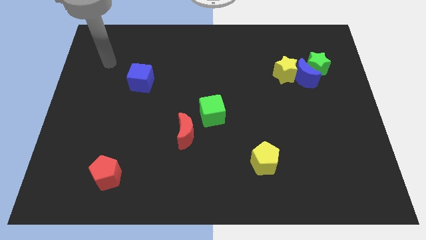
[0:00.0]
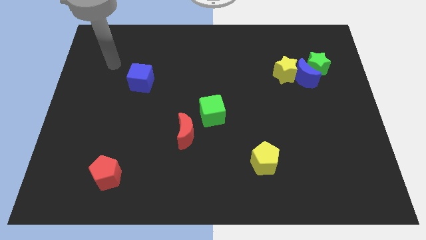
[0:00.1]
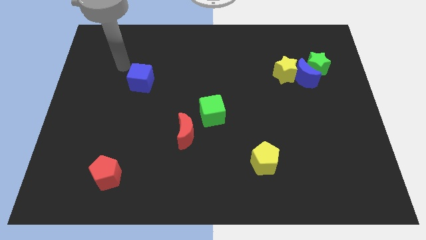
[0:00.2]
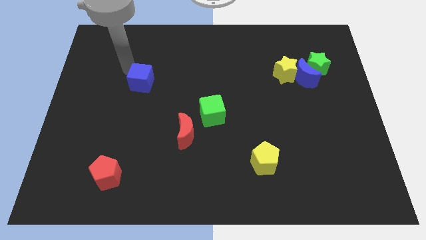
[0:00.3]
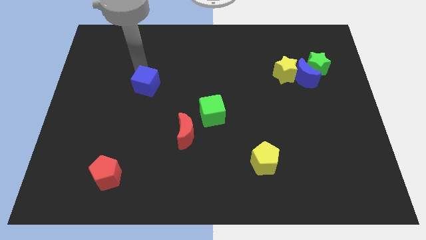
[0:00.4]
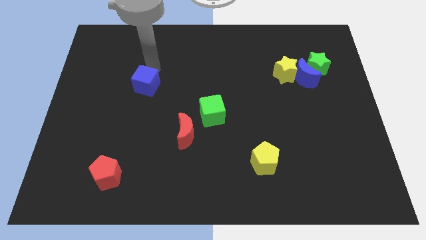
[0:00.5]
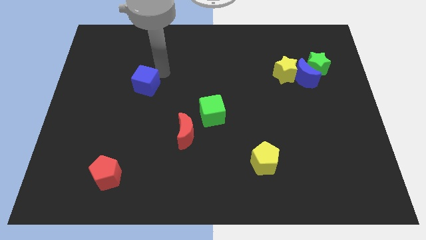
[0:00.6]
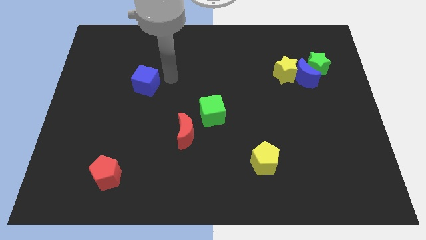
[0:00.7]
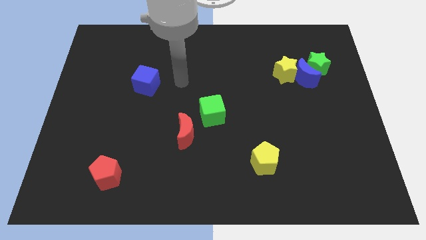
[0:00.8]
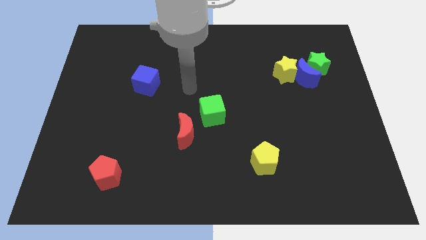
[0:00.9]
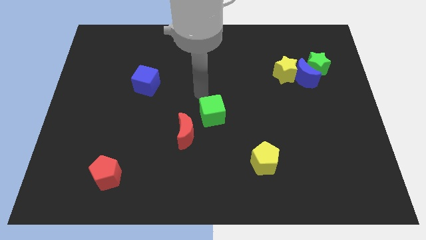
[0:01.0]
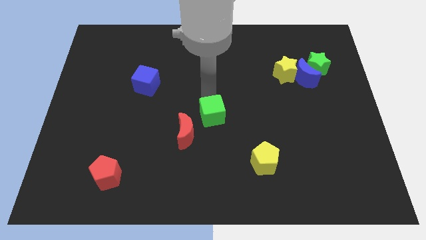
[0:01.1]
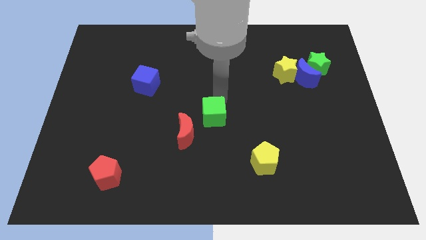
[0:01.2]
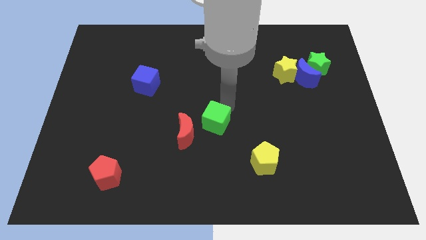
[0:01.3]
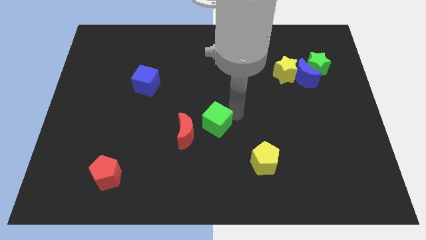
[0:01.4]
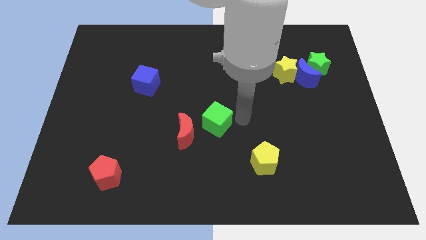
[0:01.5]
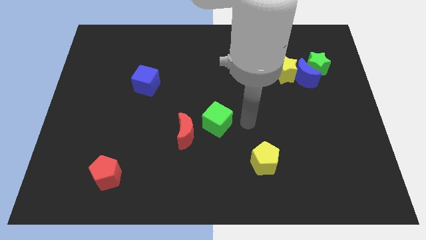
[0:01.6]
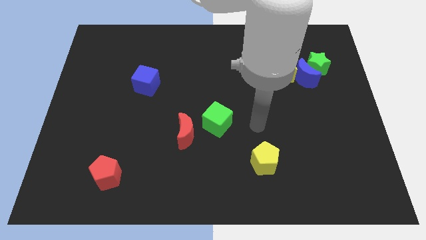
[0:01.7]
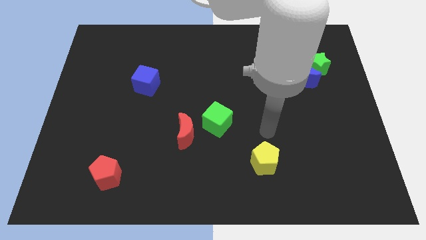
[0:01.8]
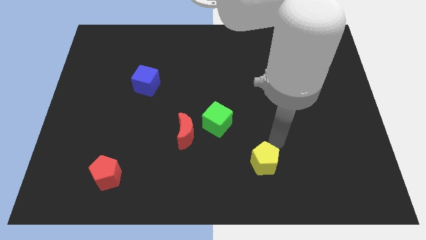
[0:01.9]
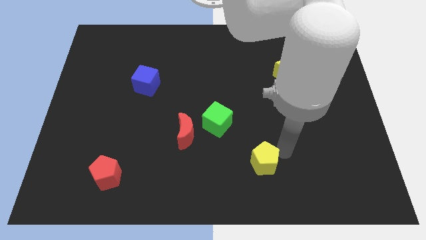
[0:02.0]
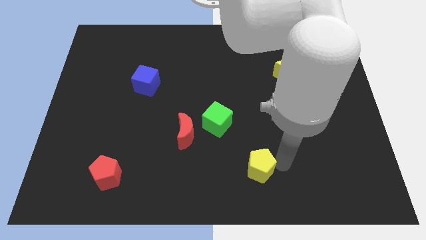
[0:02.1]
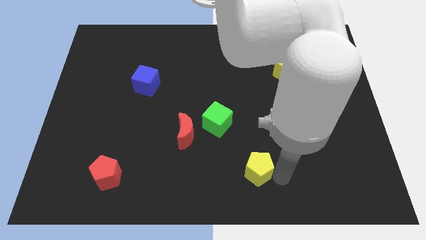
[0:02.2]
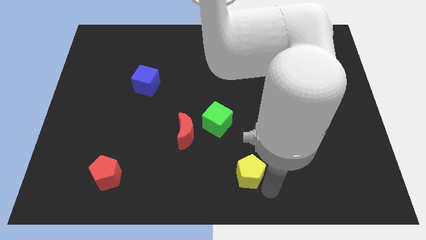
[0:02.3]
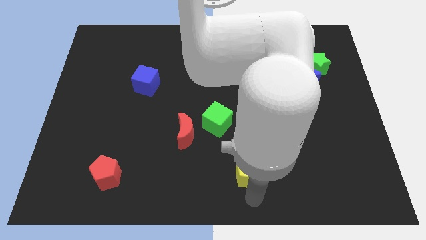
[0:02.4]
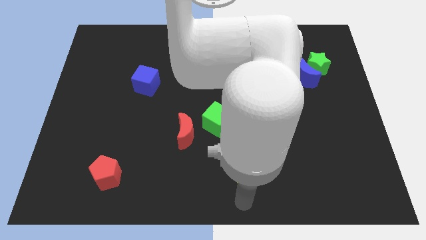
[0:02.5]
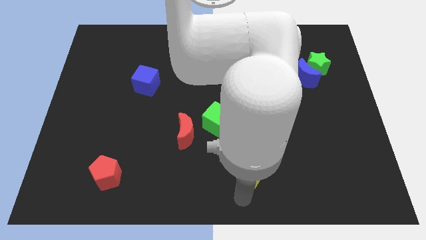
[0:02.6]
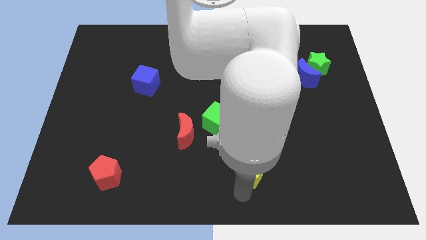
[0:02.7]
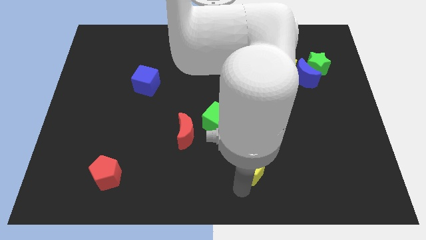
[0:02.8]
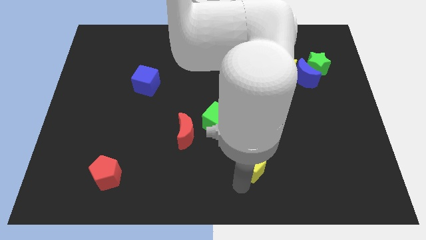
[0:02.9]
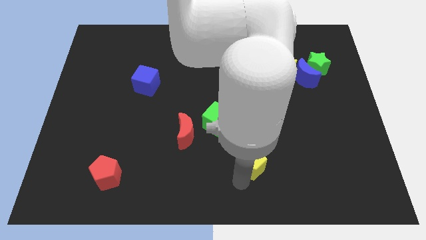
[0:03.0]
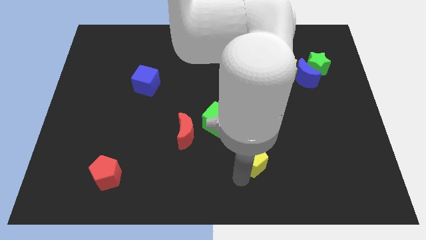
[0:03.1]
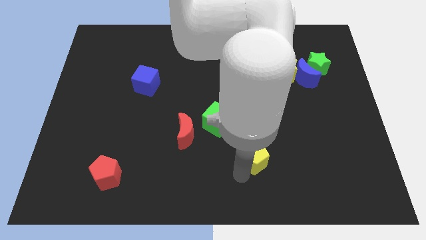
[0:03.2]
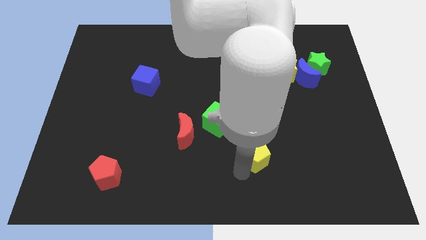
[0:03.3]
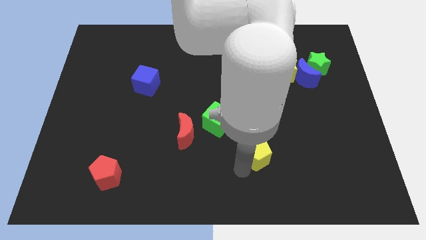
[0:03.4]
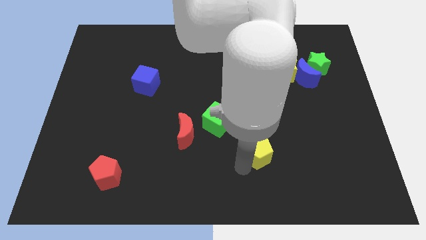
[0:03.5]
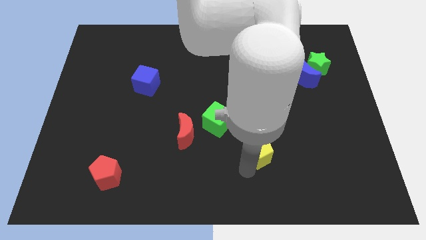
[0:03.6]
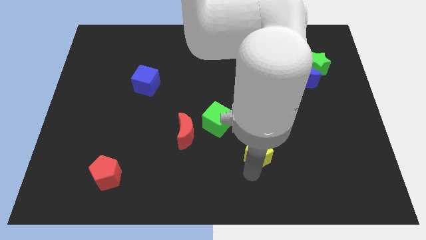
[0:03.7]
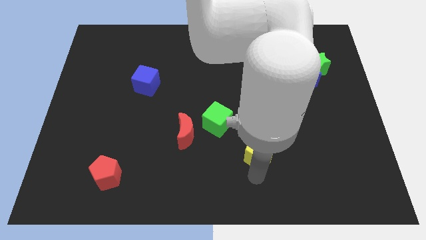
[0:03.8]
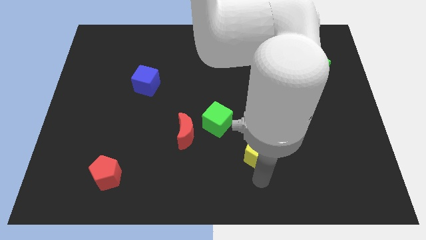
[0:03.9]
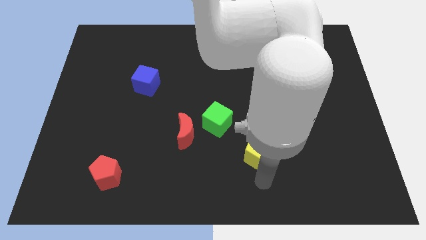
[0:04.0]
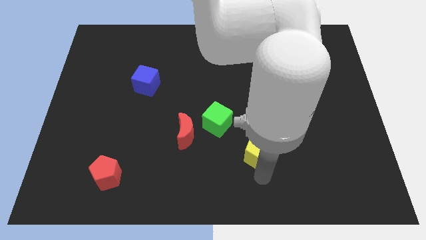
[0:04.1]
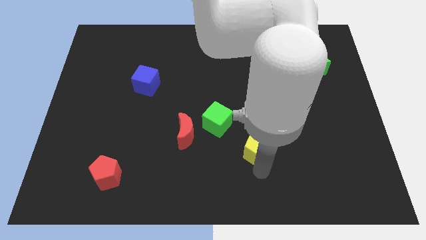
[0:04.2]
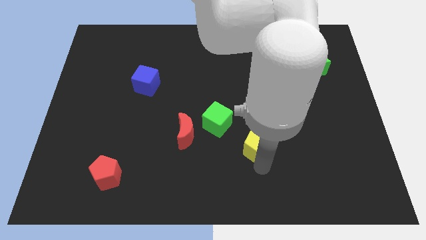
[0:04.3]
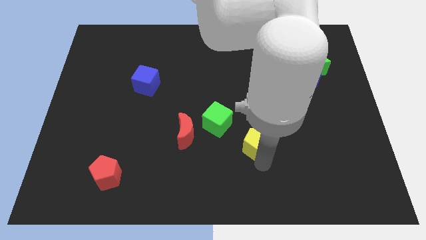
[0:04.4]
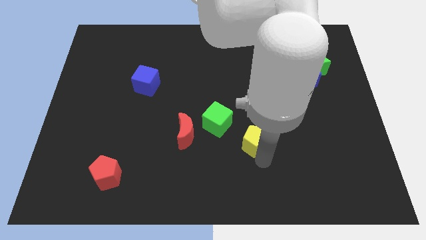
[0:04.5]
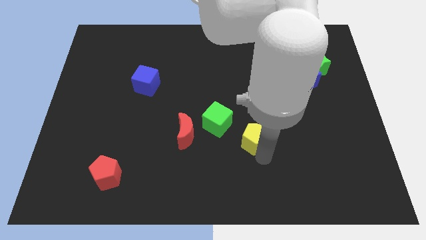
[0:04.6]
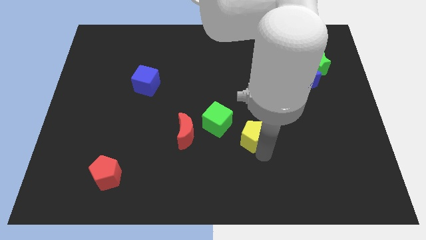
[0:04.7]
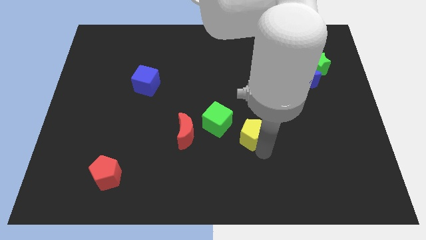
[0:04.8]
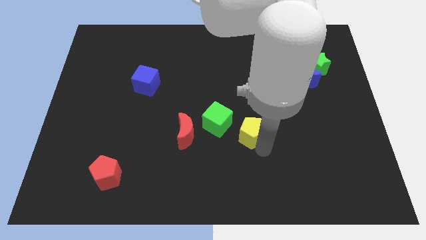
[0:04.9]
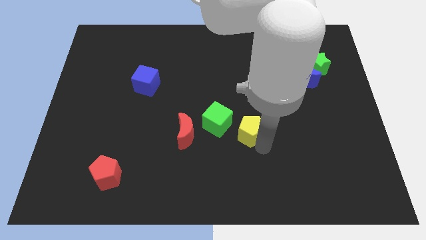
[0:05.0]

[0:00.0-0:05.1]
put the yellow pentagon to the middle of the board

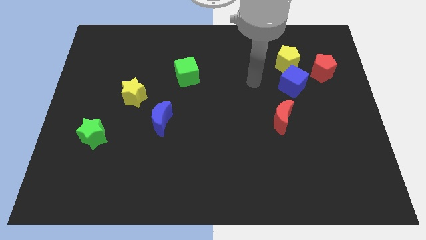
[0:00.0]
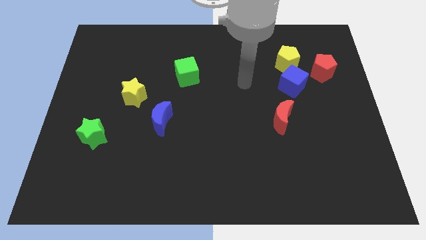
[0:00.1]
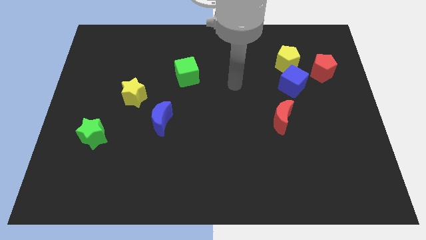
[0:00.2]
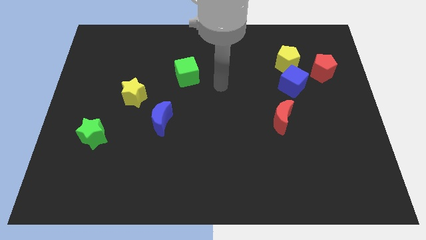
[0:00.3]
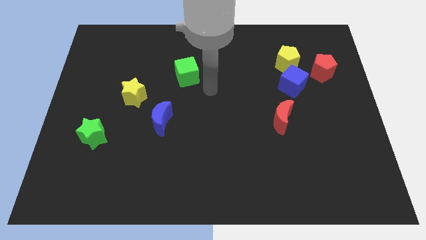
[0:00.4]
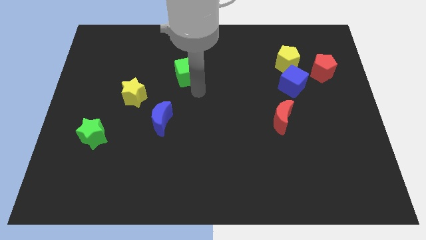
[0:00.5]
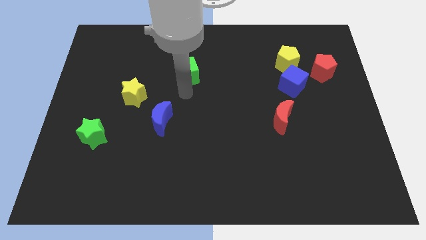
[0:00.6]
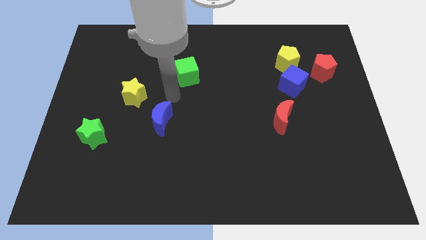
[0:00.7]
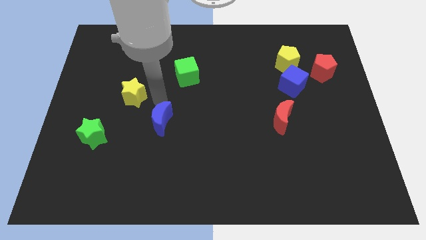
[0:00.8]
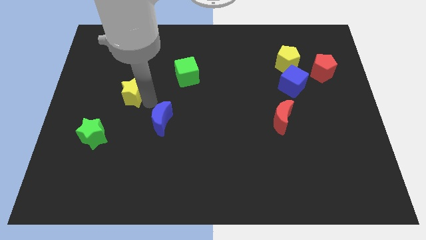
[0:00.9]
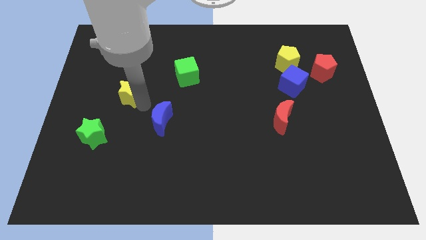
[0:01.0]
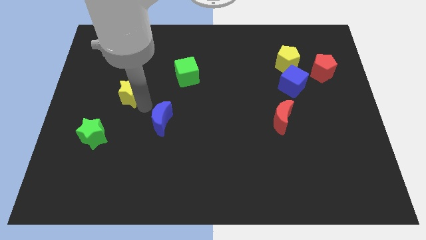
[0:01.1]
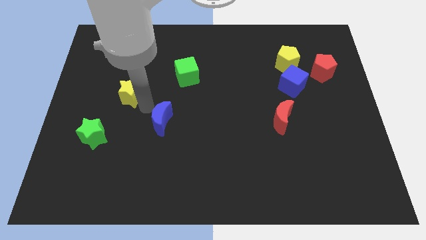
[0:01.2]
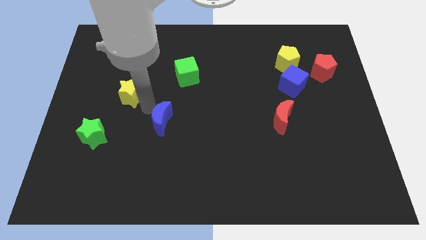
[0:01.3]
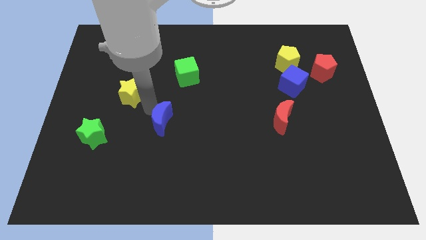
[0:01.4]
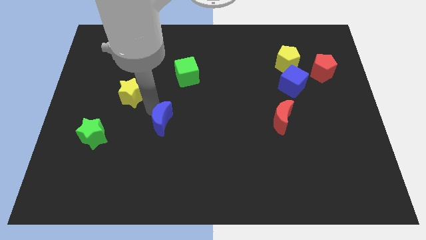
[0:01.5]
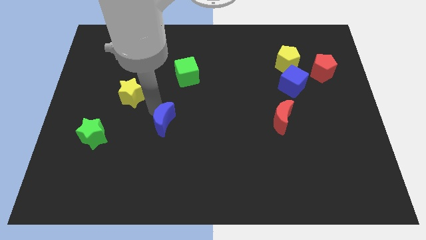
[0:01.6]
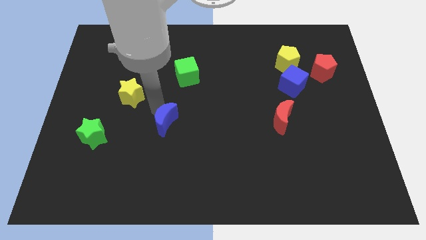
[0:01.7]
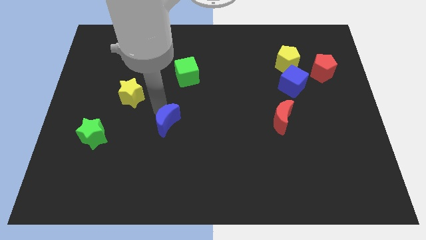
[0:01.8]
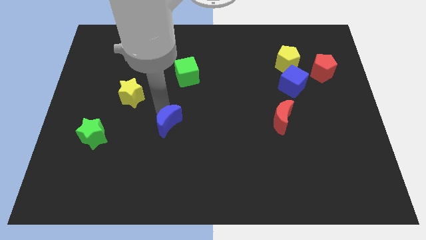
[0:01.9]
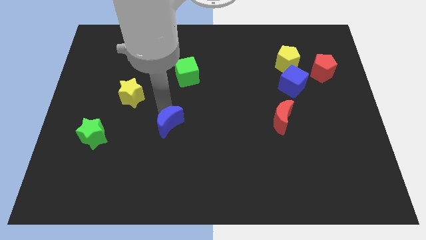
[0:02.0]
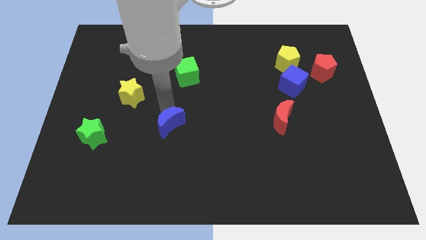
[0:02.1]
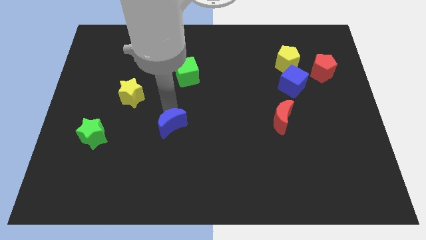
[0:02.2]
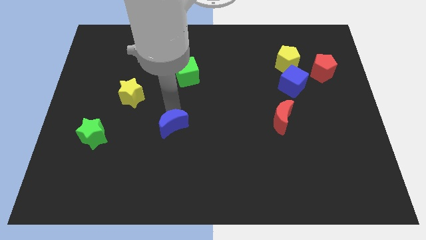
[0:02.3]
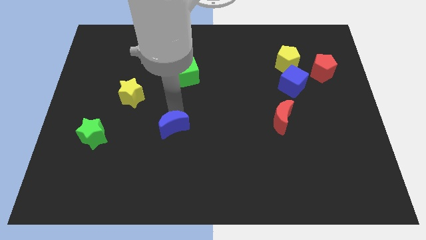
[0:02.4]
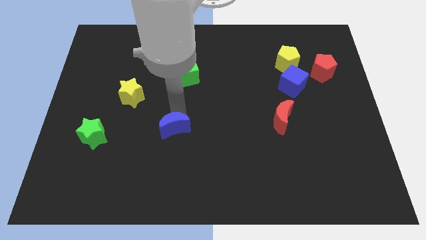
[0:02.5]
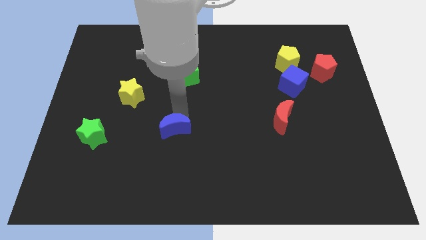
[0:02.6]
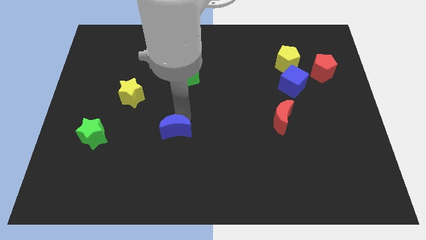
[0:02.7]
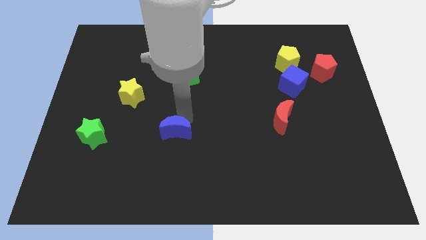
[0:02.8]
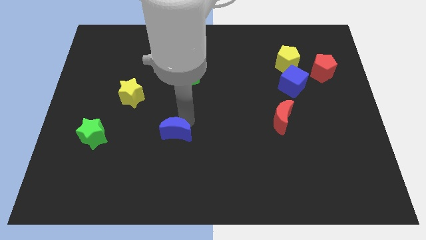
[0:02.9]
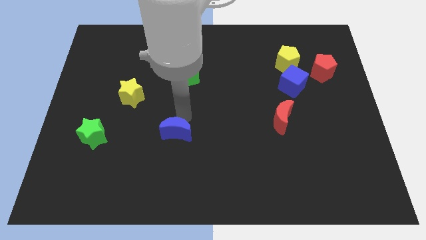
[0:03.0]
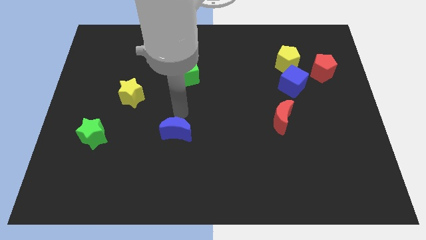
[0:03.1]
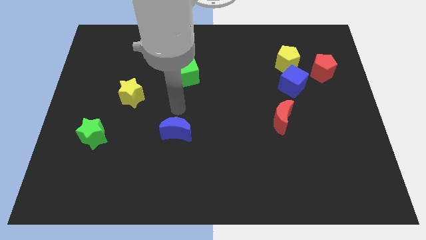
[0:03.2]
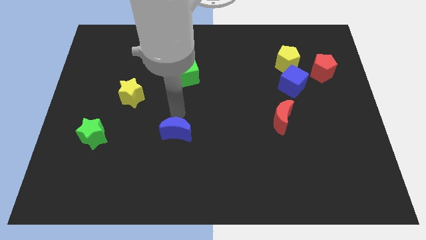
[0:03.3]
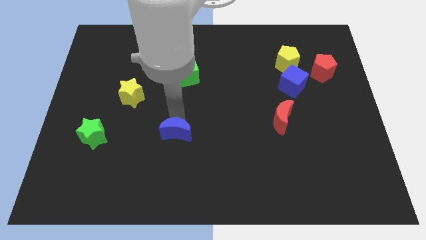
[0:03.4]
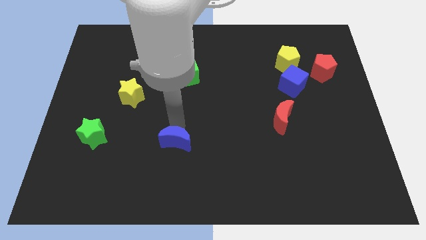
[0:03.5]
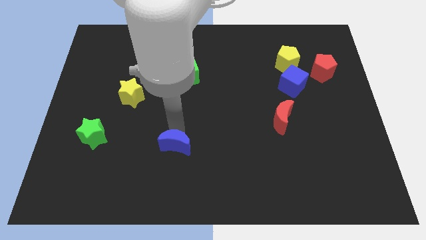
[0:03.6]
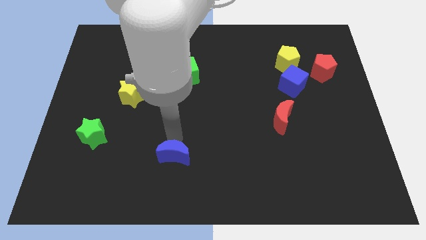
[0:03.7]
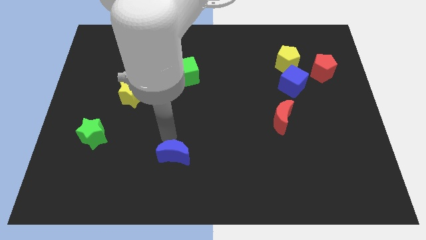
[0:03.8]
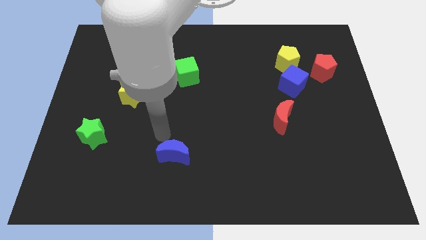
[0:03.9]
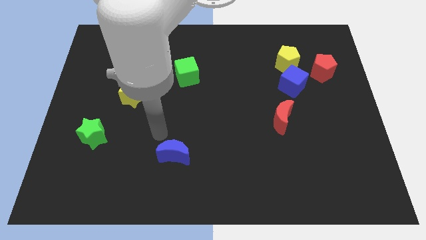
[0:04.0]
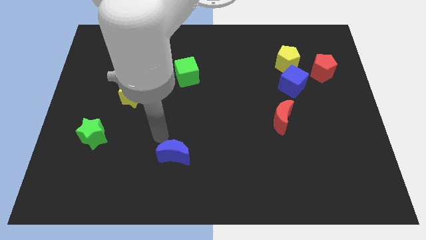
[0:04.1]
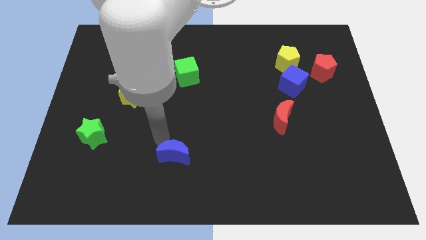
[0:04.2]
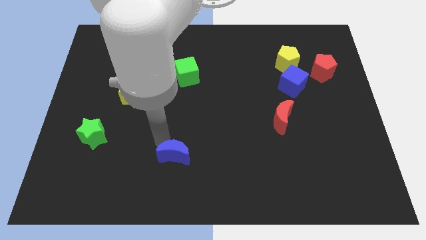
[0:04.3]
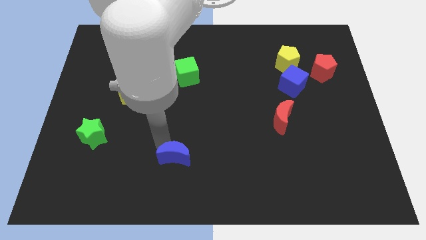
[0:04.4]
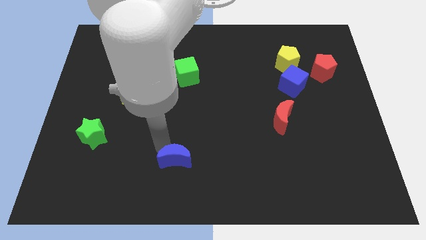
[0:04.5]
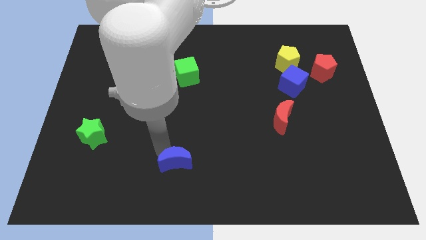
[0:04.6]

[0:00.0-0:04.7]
slide the blue moon to the bottom side
